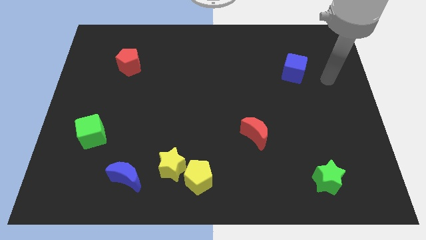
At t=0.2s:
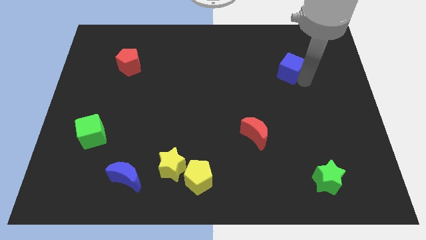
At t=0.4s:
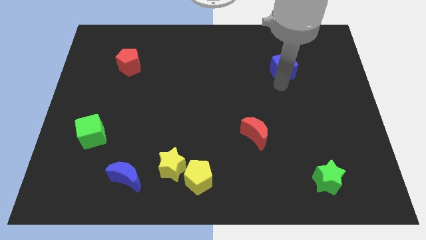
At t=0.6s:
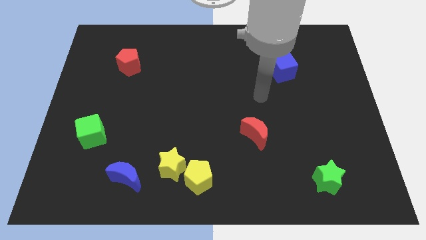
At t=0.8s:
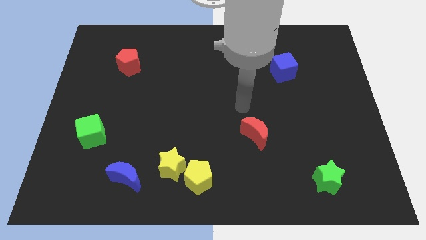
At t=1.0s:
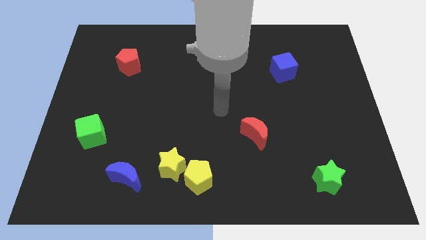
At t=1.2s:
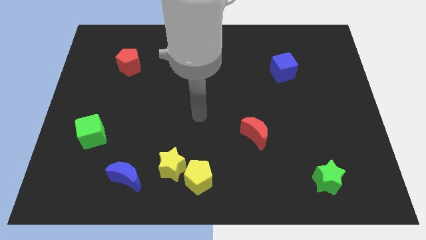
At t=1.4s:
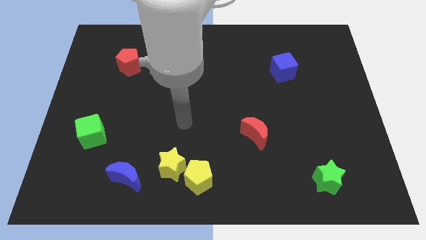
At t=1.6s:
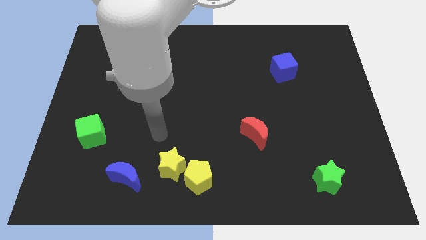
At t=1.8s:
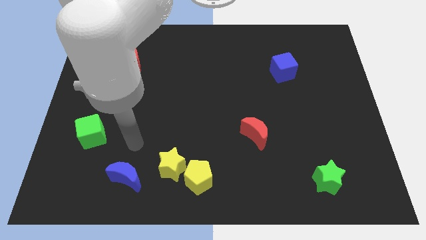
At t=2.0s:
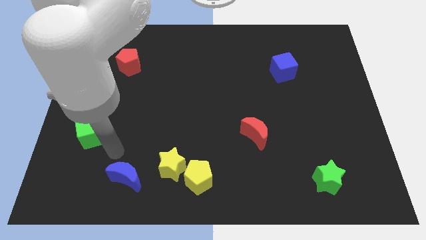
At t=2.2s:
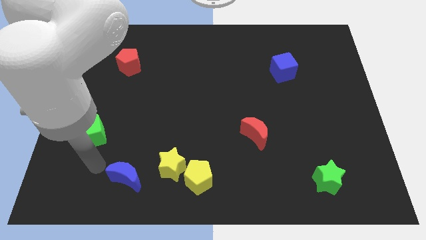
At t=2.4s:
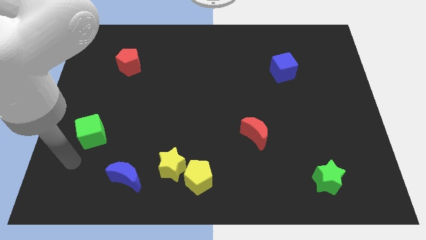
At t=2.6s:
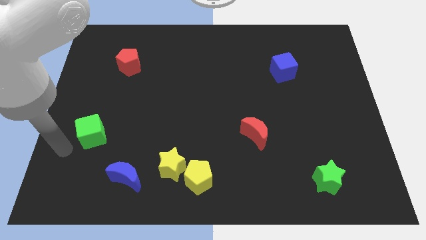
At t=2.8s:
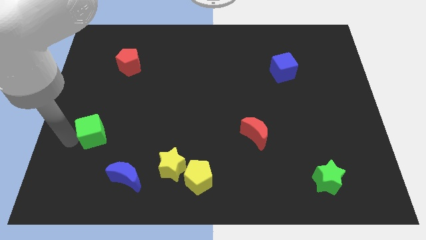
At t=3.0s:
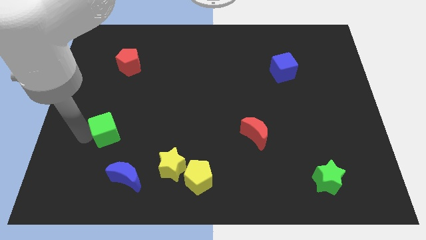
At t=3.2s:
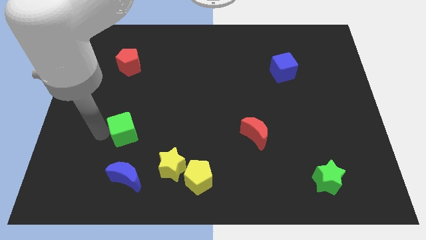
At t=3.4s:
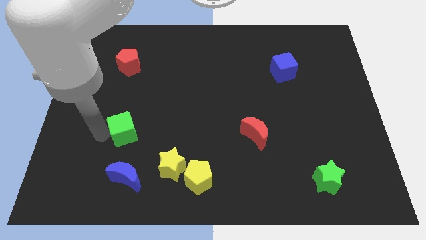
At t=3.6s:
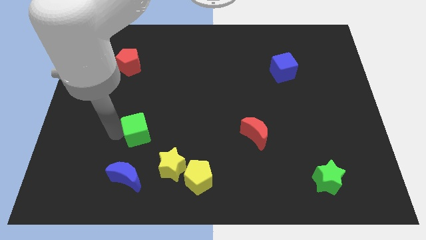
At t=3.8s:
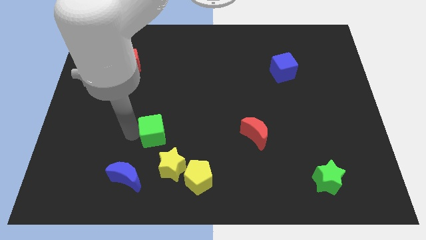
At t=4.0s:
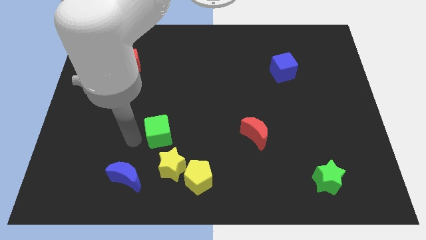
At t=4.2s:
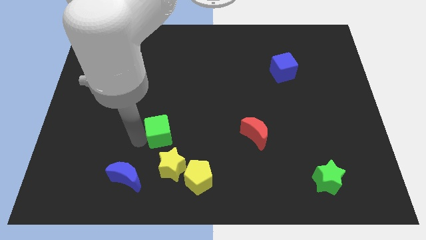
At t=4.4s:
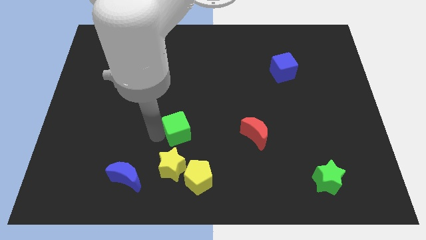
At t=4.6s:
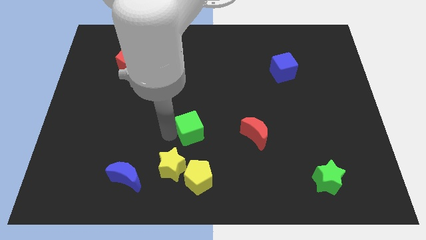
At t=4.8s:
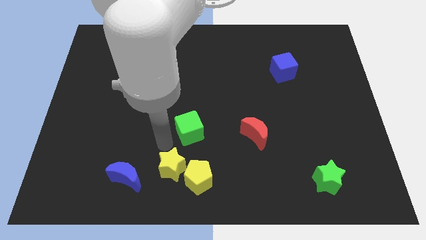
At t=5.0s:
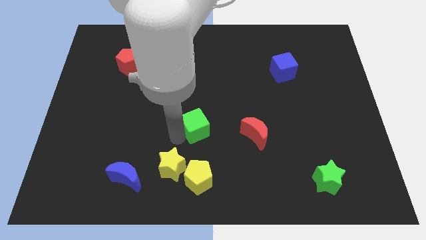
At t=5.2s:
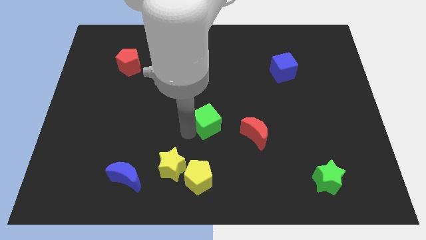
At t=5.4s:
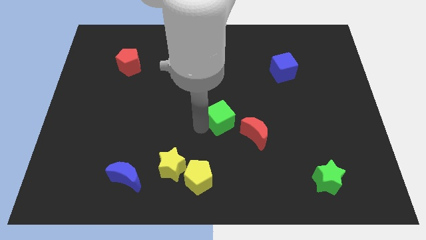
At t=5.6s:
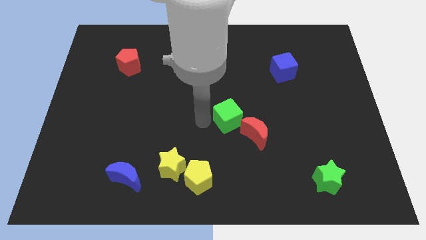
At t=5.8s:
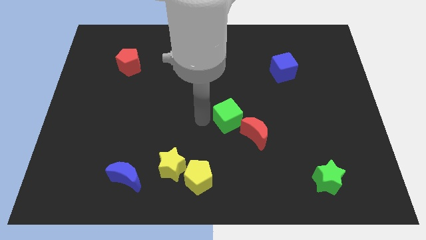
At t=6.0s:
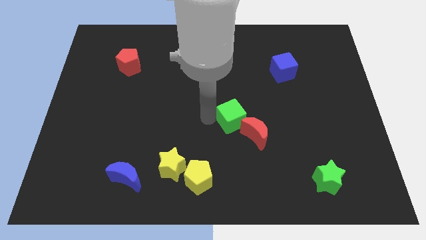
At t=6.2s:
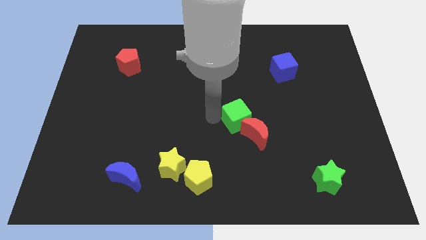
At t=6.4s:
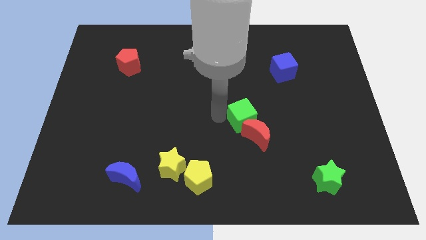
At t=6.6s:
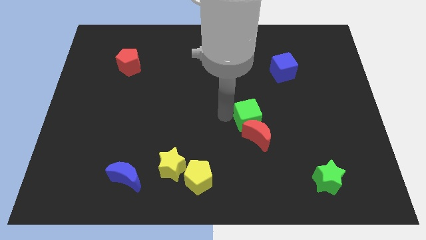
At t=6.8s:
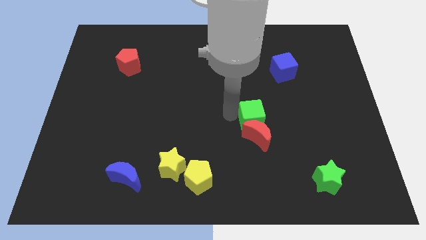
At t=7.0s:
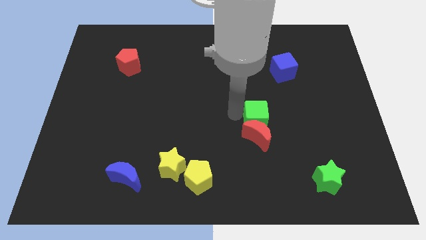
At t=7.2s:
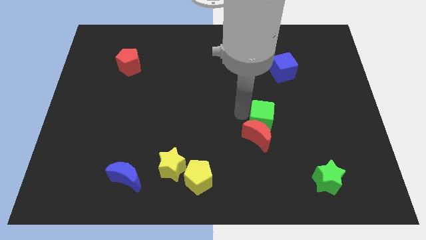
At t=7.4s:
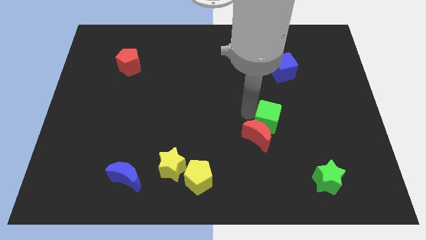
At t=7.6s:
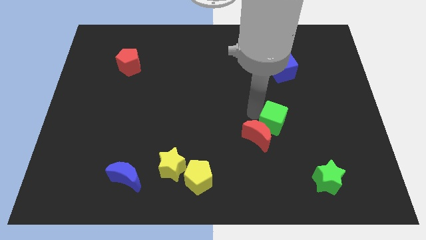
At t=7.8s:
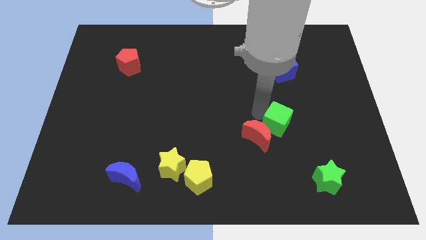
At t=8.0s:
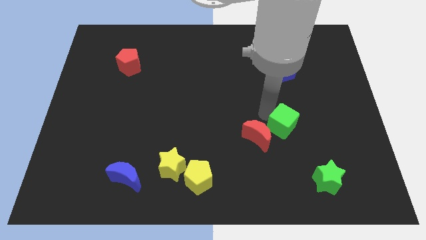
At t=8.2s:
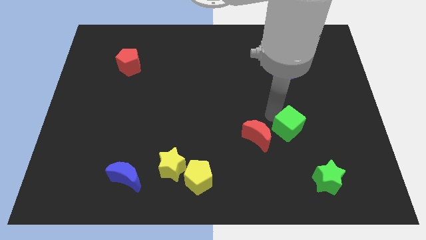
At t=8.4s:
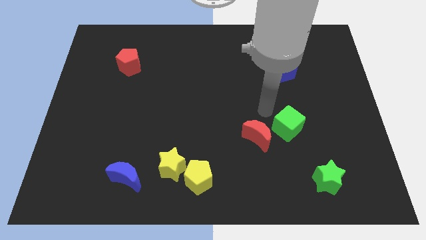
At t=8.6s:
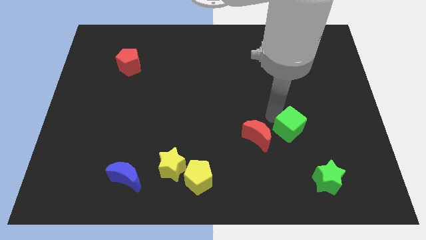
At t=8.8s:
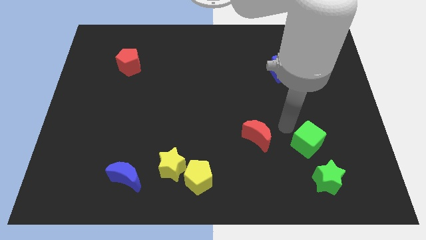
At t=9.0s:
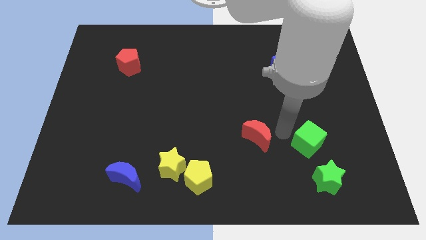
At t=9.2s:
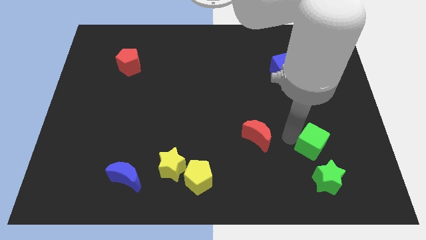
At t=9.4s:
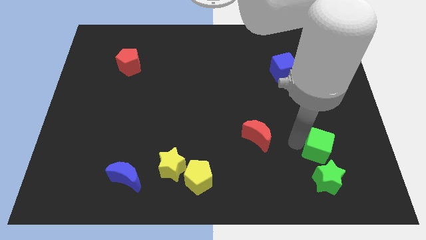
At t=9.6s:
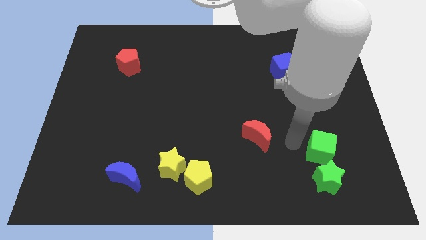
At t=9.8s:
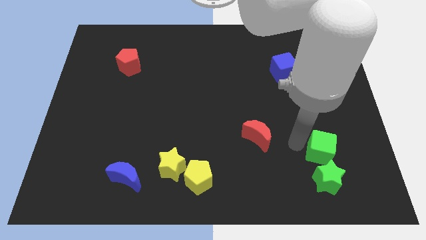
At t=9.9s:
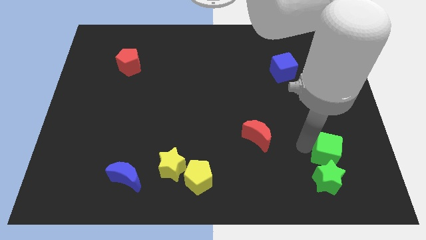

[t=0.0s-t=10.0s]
push the green cube diagonally up and to the right of the green star

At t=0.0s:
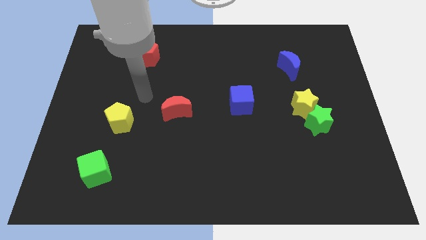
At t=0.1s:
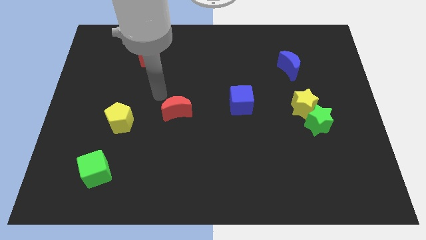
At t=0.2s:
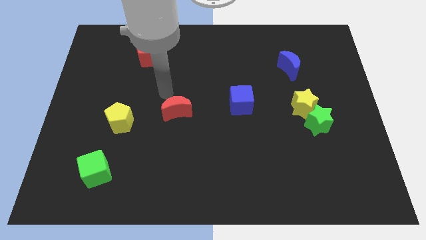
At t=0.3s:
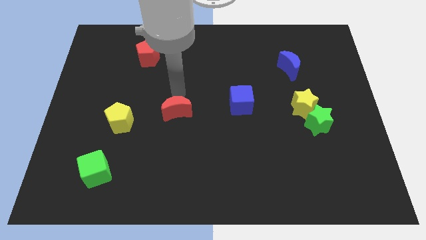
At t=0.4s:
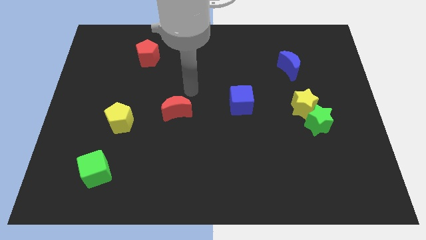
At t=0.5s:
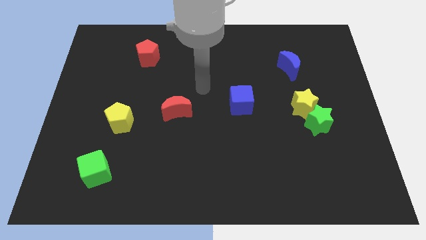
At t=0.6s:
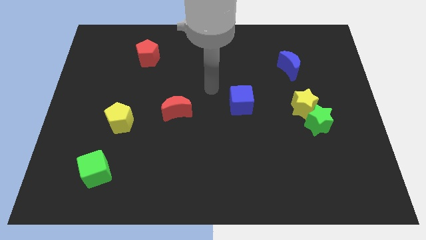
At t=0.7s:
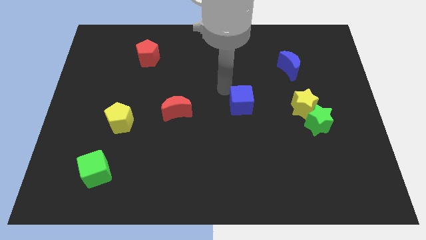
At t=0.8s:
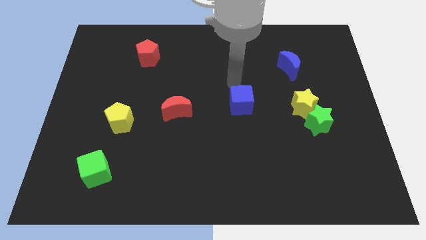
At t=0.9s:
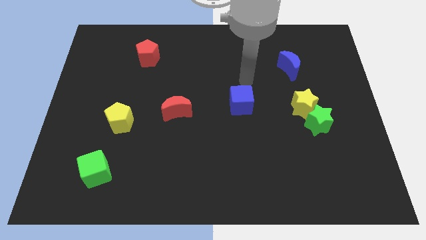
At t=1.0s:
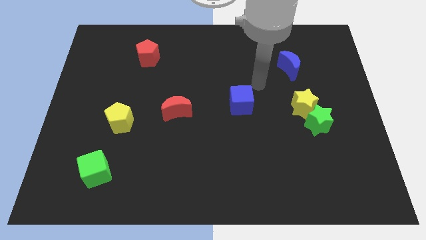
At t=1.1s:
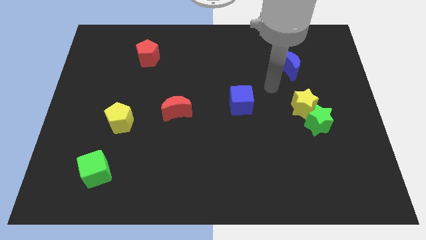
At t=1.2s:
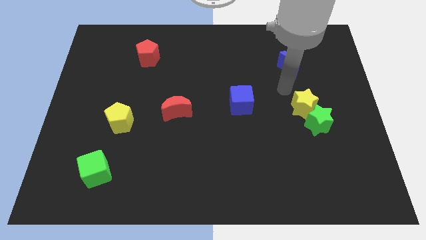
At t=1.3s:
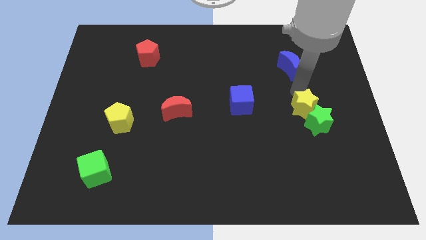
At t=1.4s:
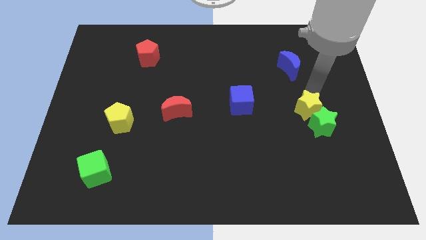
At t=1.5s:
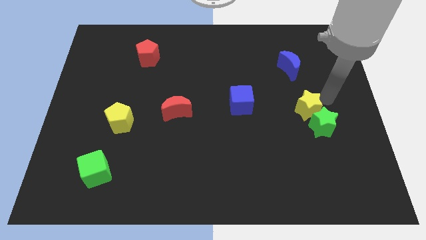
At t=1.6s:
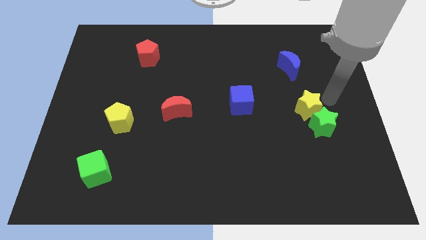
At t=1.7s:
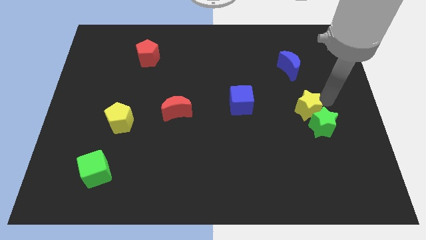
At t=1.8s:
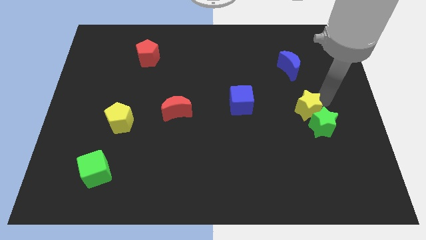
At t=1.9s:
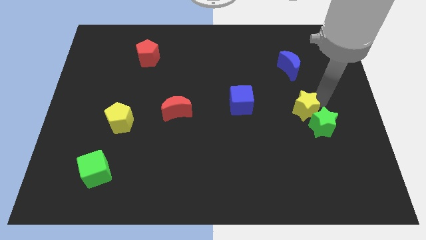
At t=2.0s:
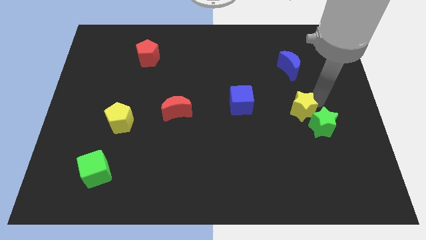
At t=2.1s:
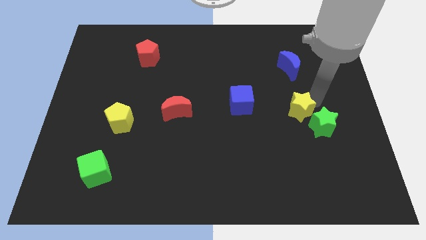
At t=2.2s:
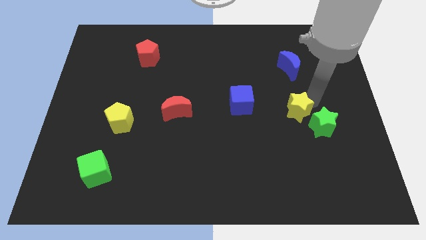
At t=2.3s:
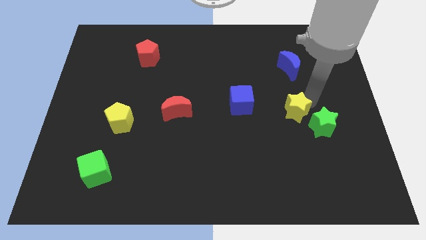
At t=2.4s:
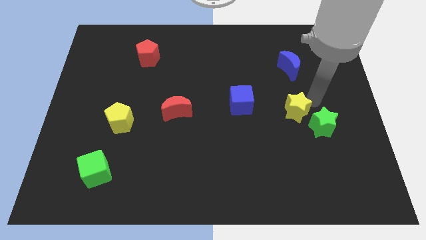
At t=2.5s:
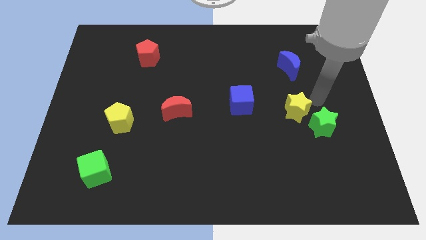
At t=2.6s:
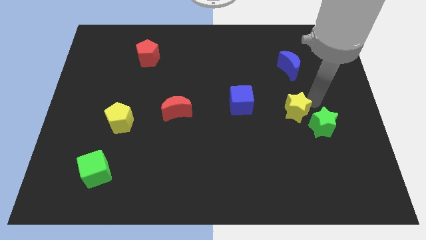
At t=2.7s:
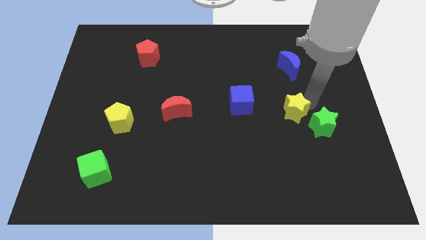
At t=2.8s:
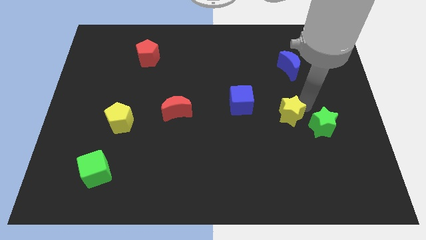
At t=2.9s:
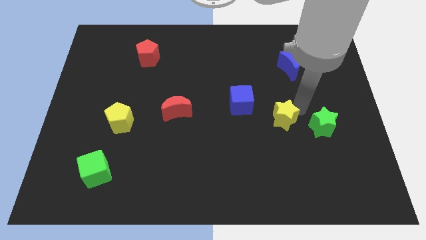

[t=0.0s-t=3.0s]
slide the yellow star to the bottom right of the blue cube
